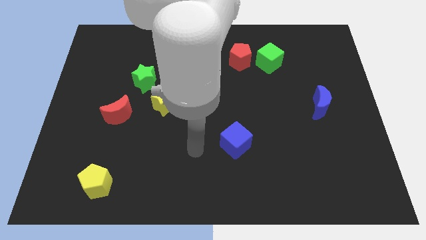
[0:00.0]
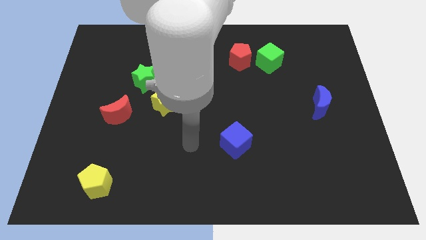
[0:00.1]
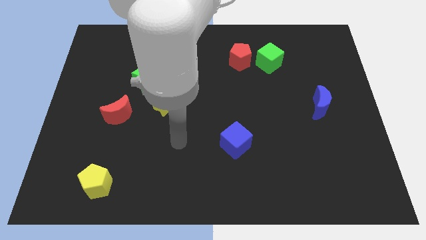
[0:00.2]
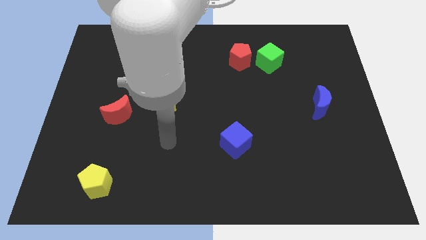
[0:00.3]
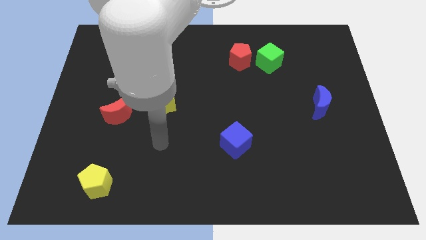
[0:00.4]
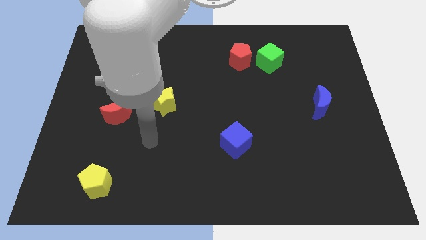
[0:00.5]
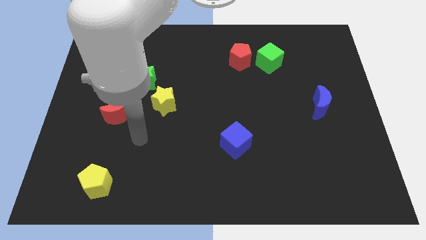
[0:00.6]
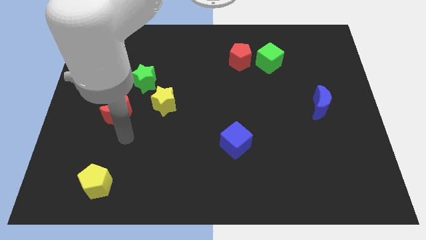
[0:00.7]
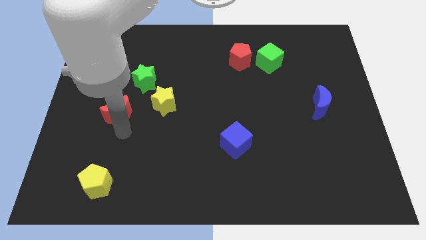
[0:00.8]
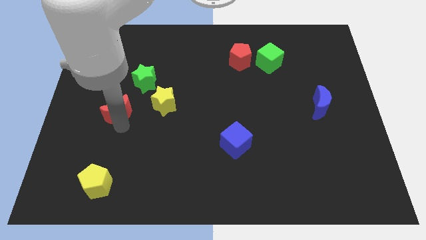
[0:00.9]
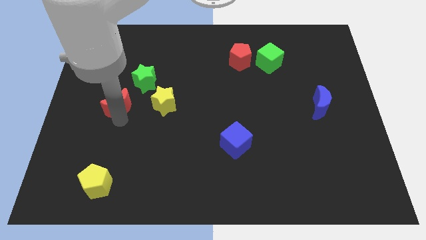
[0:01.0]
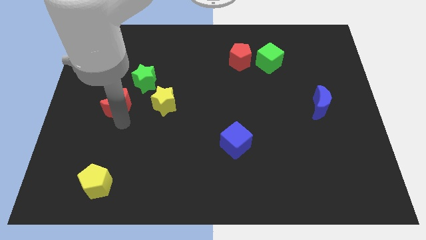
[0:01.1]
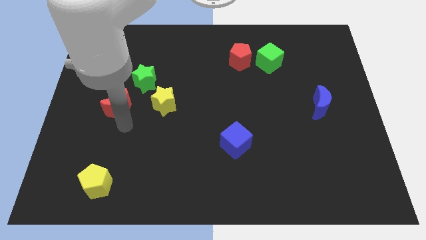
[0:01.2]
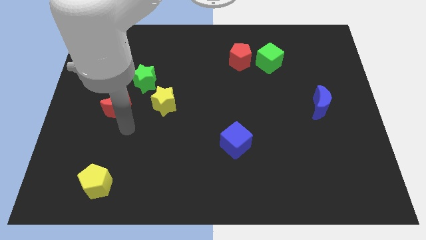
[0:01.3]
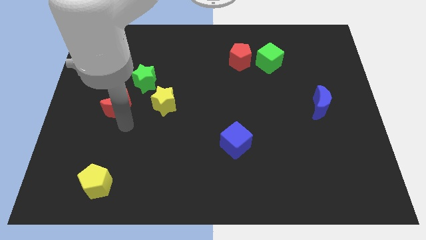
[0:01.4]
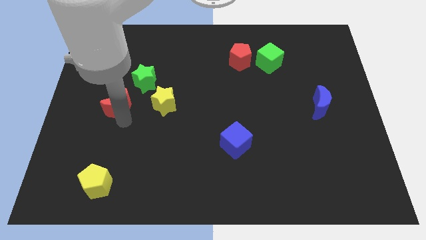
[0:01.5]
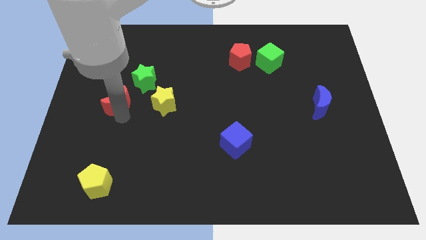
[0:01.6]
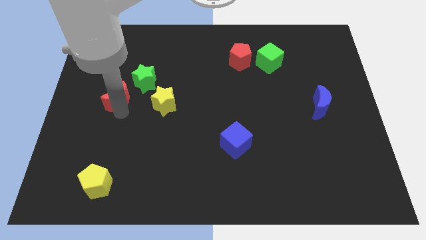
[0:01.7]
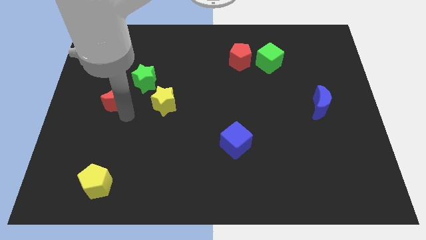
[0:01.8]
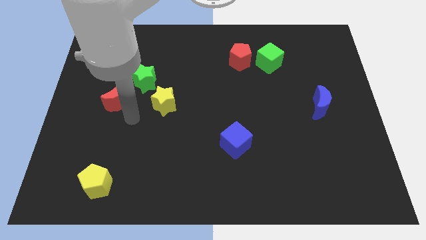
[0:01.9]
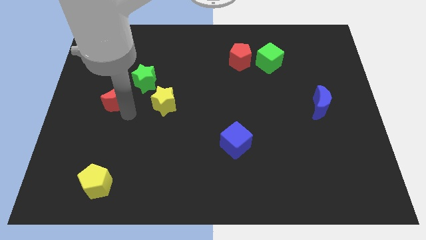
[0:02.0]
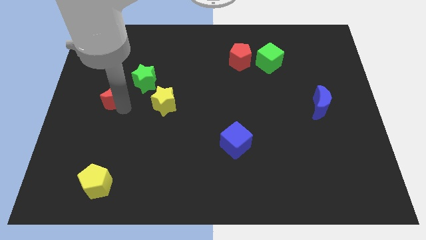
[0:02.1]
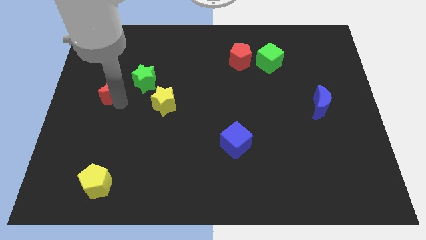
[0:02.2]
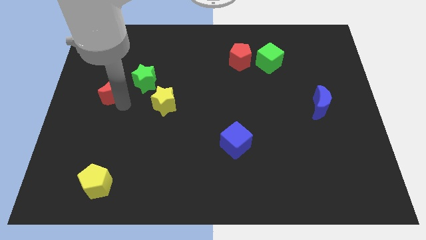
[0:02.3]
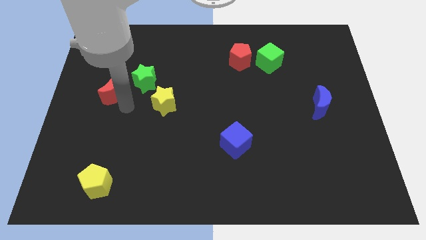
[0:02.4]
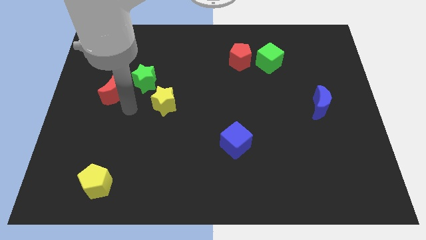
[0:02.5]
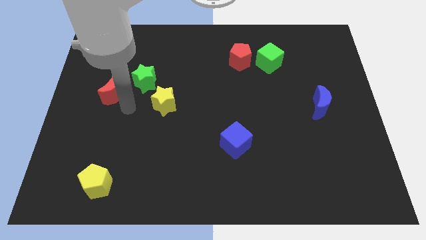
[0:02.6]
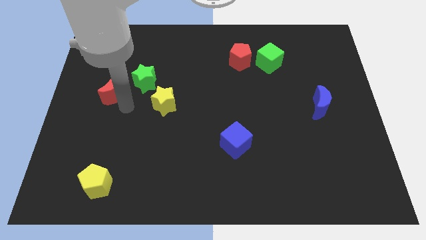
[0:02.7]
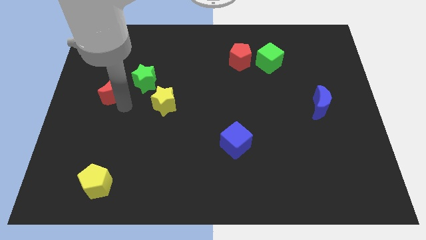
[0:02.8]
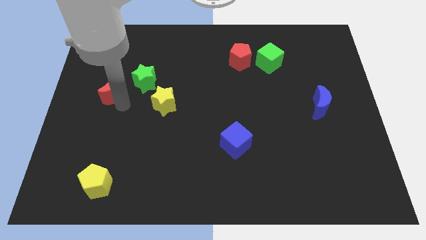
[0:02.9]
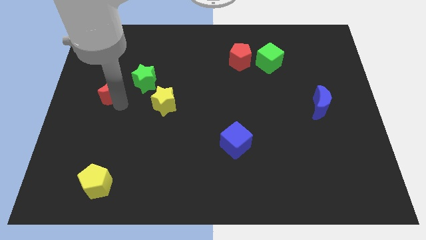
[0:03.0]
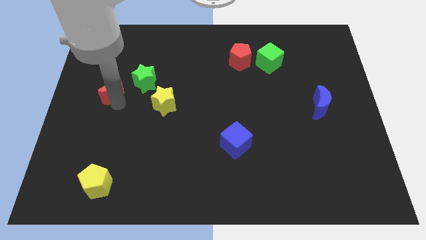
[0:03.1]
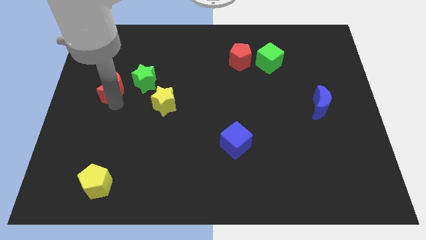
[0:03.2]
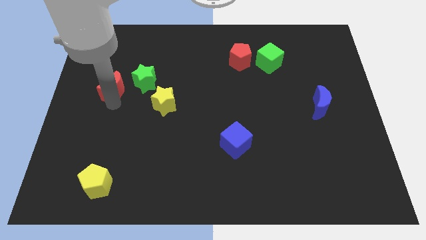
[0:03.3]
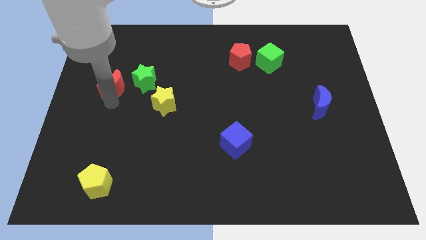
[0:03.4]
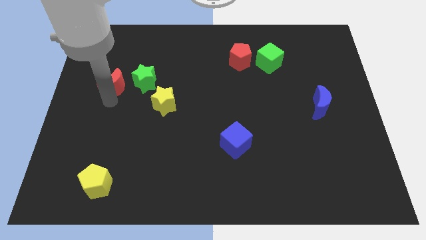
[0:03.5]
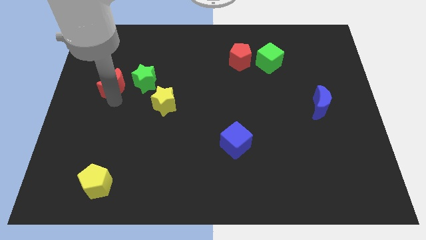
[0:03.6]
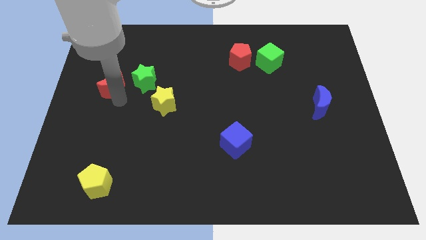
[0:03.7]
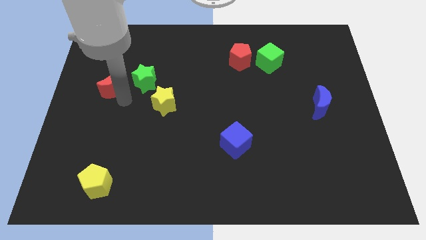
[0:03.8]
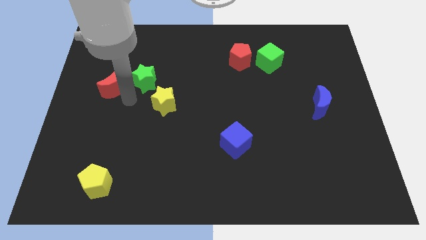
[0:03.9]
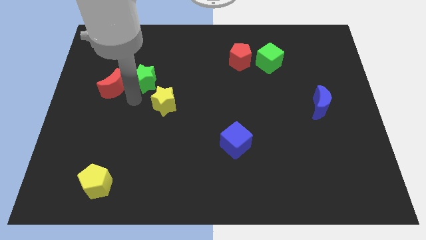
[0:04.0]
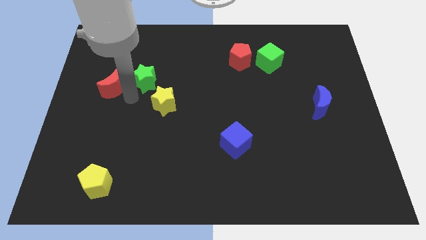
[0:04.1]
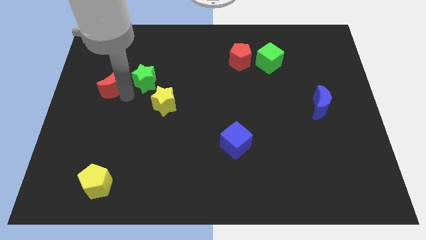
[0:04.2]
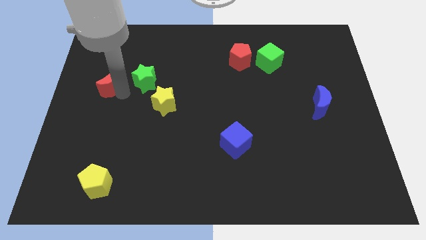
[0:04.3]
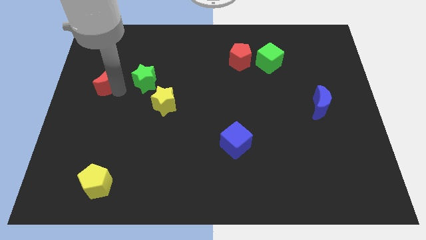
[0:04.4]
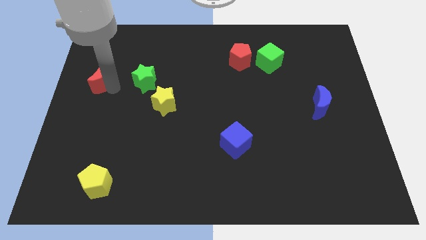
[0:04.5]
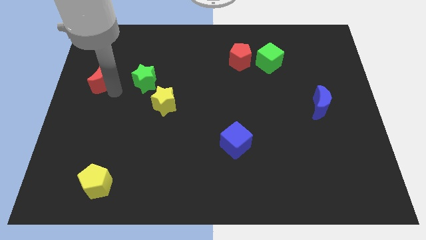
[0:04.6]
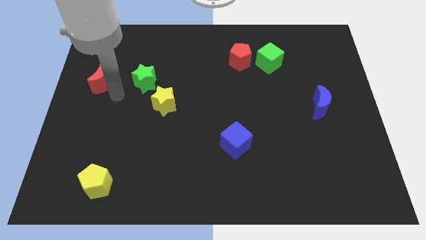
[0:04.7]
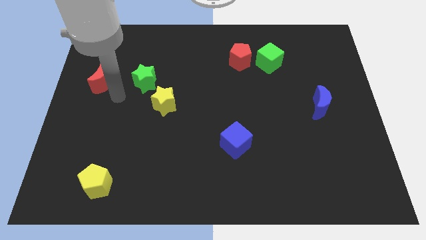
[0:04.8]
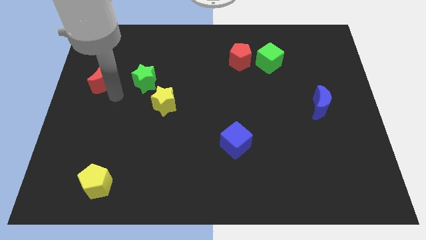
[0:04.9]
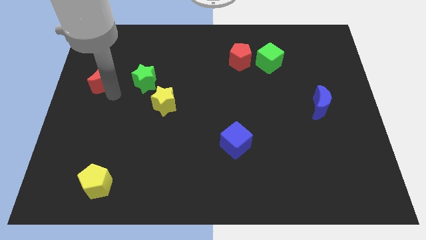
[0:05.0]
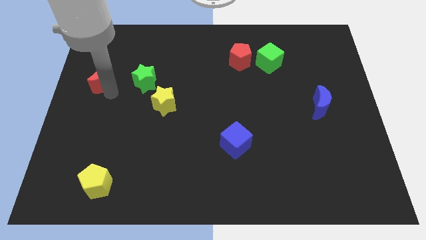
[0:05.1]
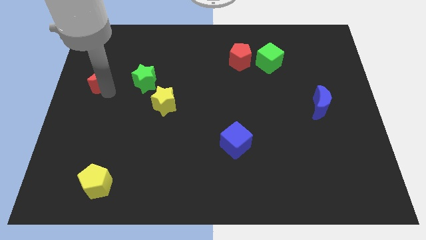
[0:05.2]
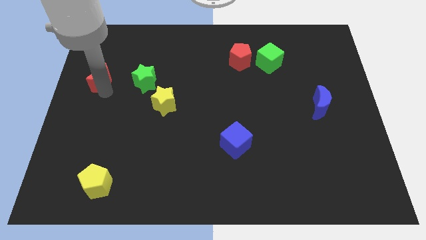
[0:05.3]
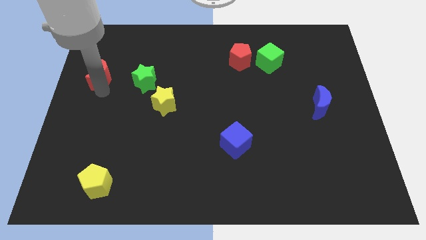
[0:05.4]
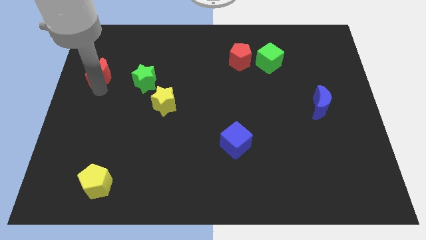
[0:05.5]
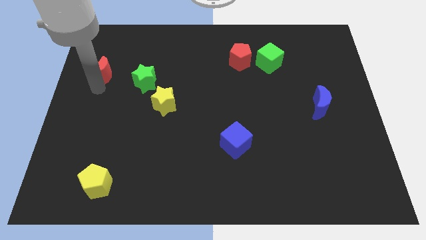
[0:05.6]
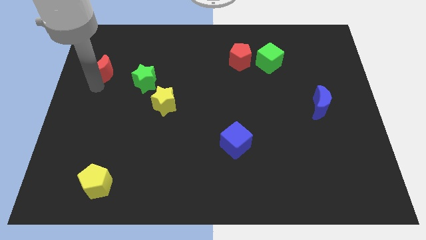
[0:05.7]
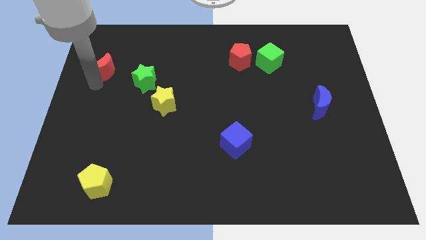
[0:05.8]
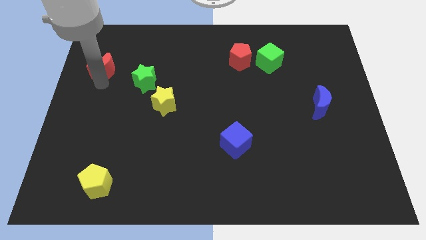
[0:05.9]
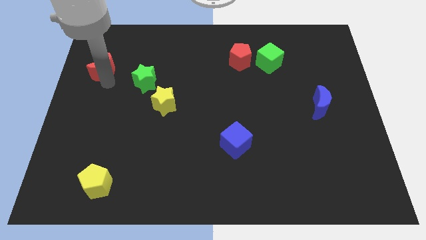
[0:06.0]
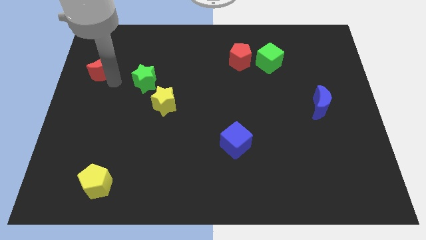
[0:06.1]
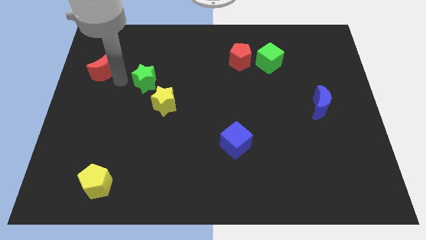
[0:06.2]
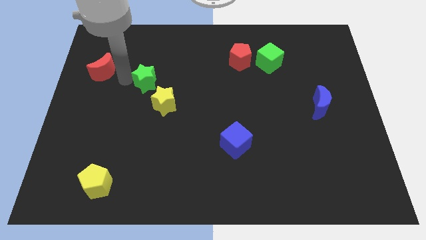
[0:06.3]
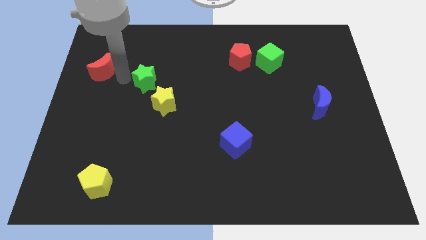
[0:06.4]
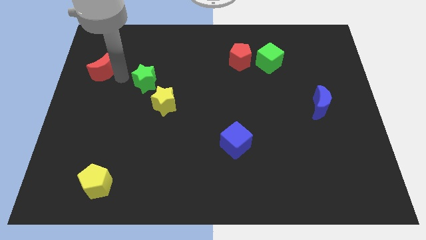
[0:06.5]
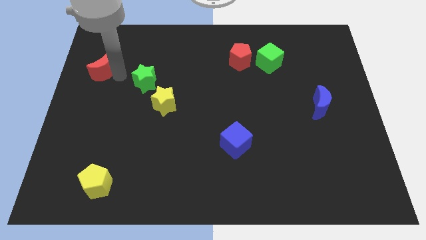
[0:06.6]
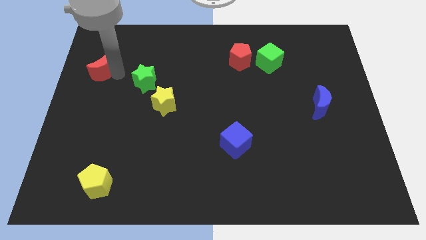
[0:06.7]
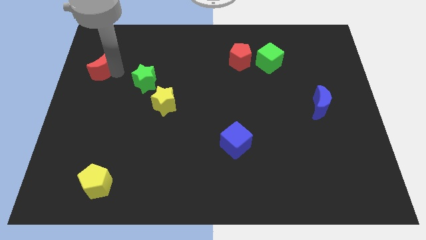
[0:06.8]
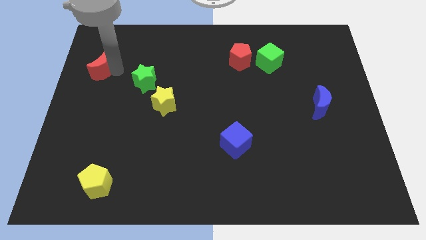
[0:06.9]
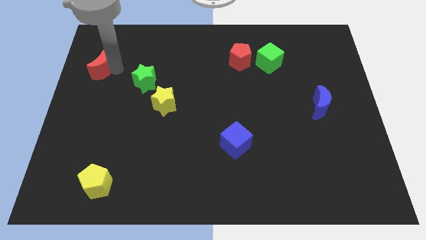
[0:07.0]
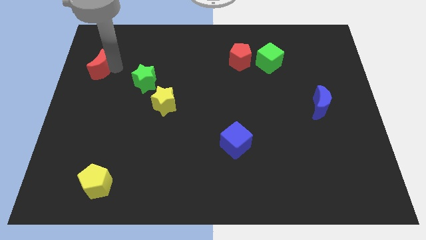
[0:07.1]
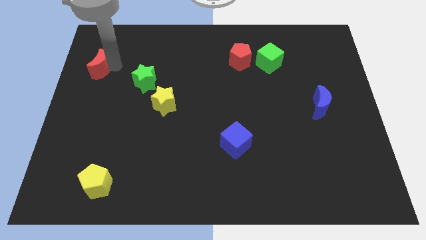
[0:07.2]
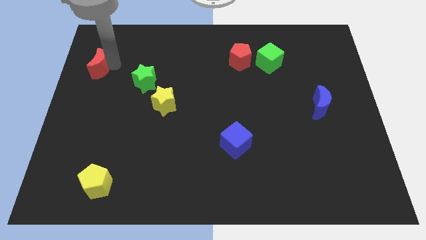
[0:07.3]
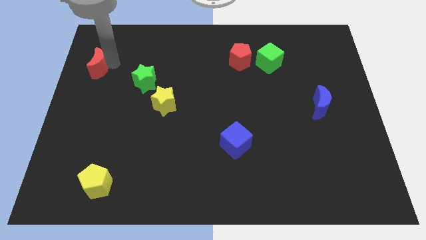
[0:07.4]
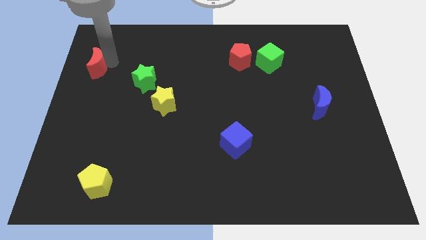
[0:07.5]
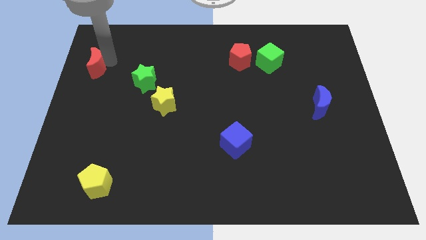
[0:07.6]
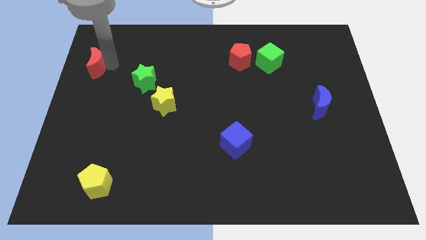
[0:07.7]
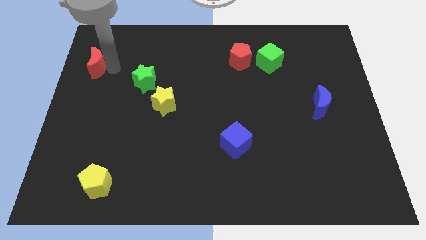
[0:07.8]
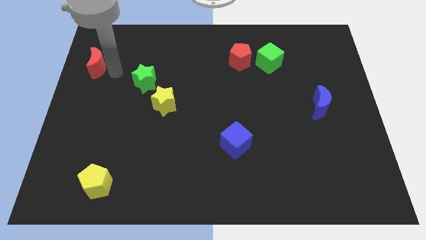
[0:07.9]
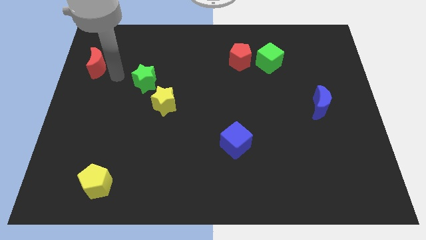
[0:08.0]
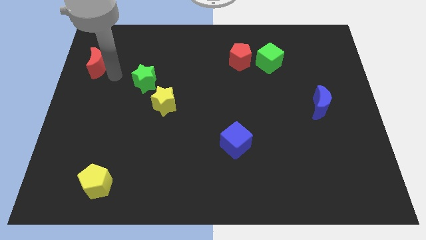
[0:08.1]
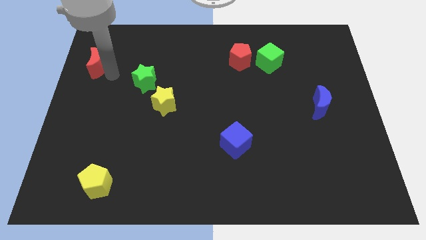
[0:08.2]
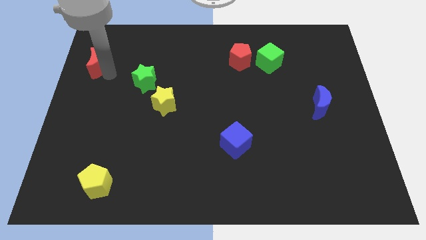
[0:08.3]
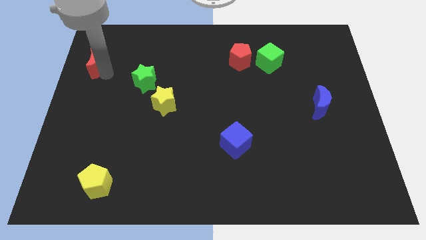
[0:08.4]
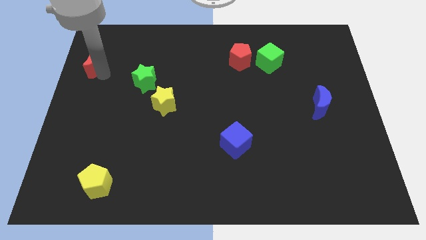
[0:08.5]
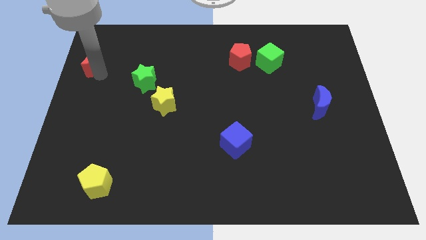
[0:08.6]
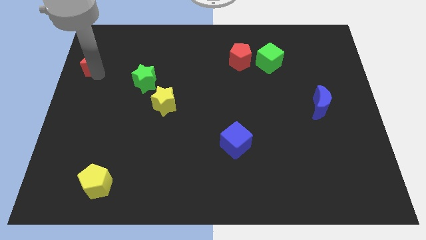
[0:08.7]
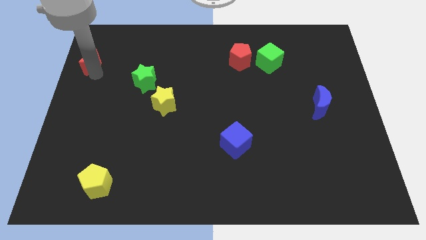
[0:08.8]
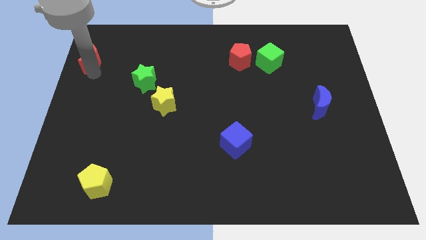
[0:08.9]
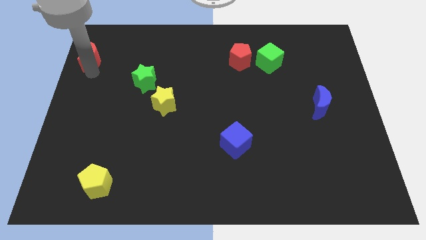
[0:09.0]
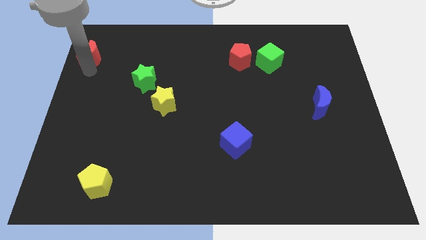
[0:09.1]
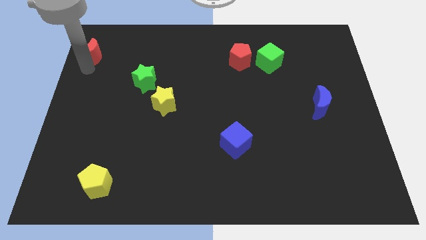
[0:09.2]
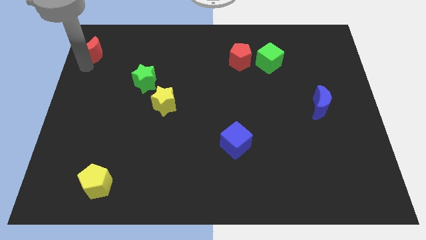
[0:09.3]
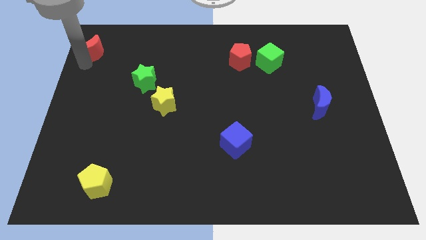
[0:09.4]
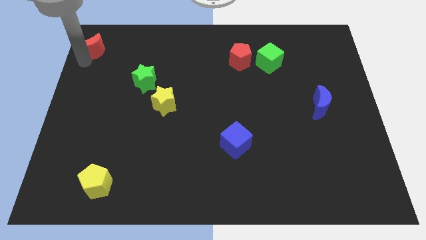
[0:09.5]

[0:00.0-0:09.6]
push the red moon to the top left of the board
